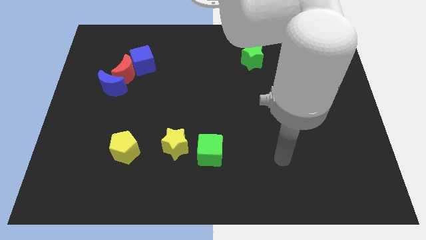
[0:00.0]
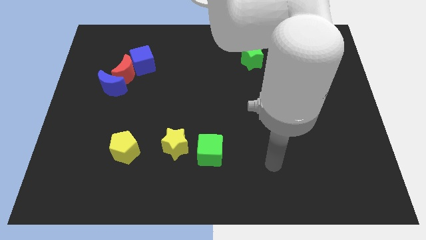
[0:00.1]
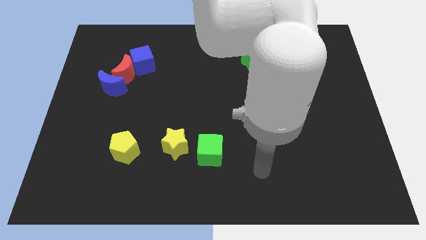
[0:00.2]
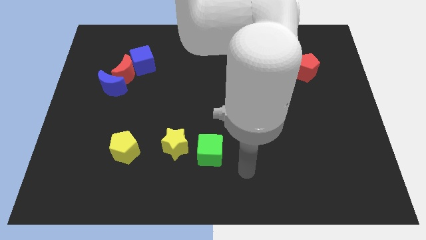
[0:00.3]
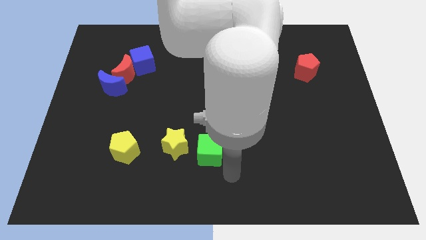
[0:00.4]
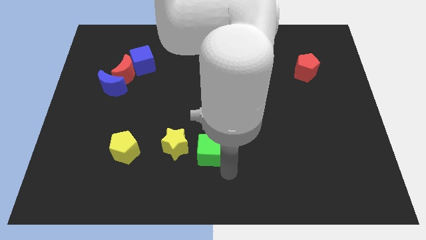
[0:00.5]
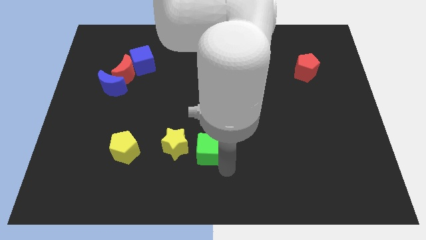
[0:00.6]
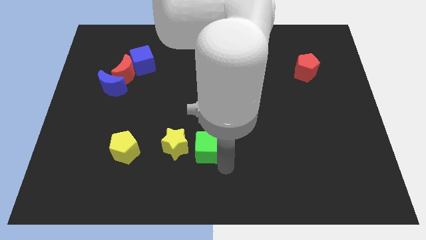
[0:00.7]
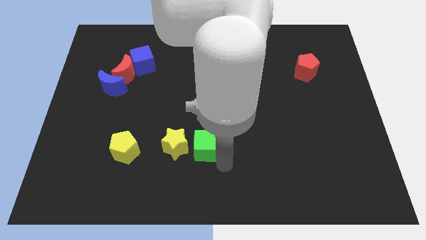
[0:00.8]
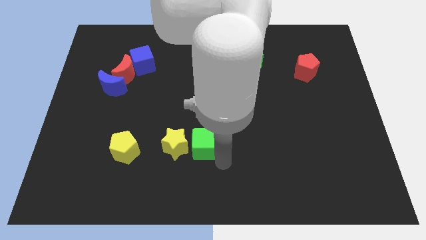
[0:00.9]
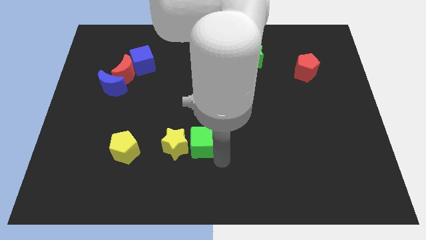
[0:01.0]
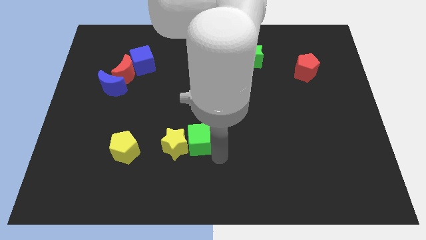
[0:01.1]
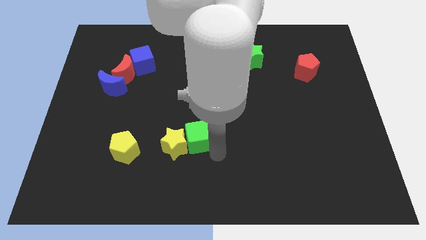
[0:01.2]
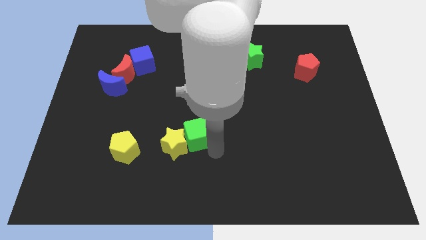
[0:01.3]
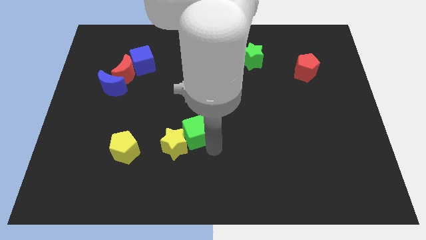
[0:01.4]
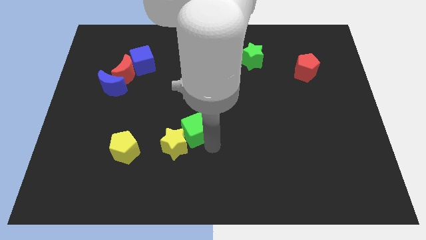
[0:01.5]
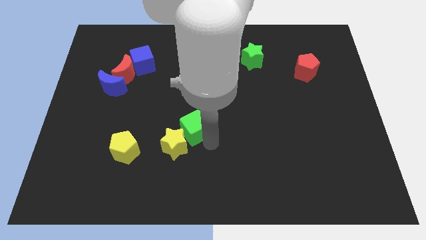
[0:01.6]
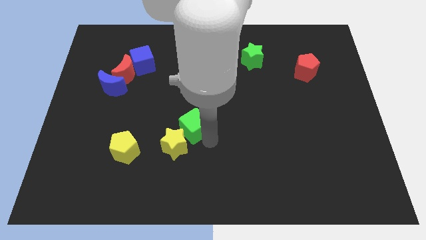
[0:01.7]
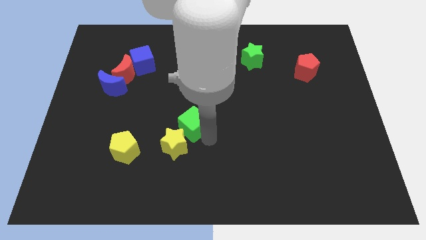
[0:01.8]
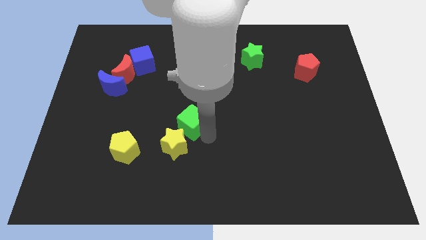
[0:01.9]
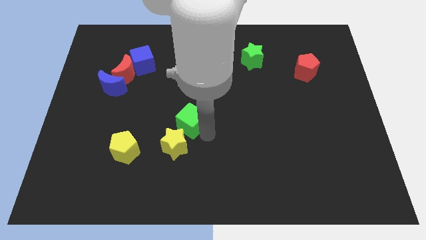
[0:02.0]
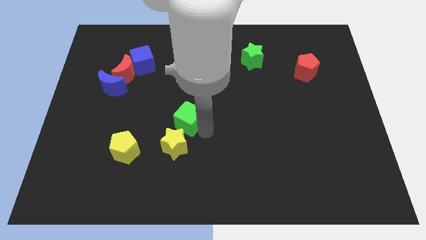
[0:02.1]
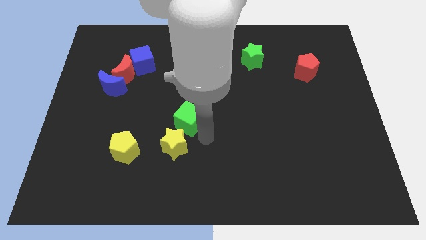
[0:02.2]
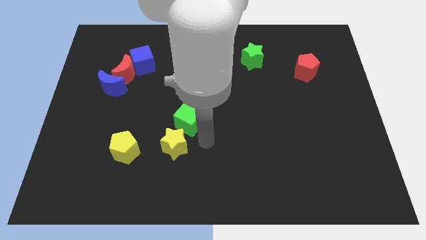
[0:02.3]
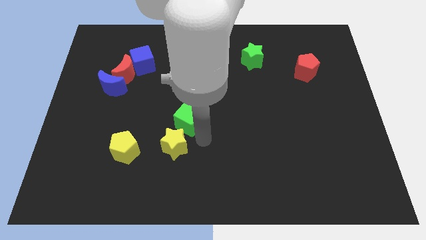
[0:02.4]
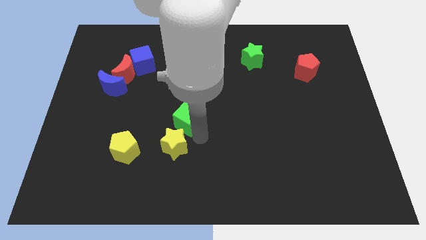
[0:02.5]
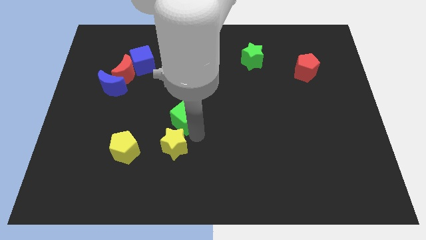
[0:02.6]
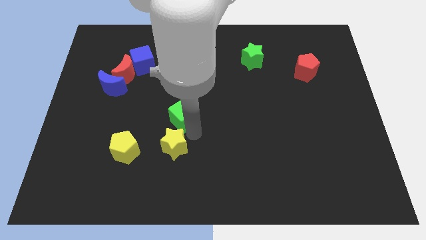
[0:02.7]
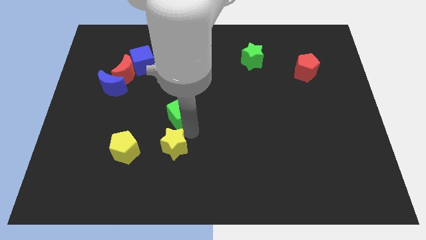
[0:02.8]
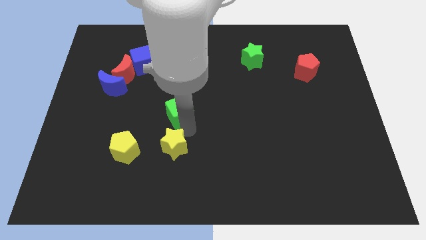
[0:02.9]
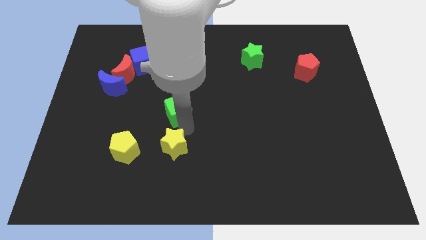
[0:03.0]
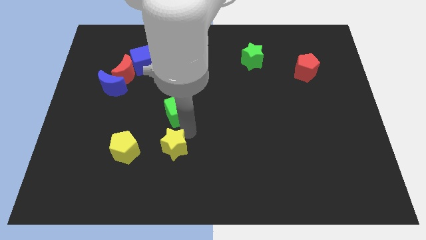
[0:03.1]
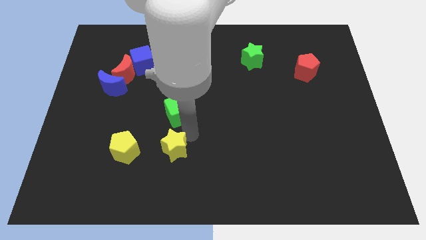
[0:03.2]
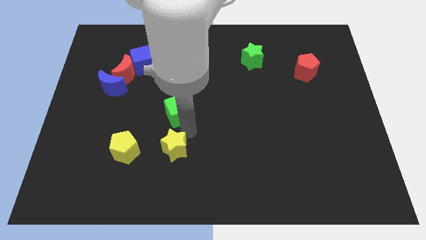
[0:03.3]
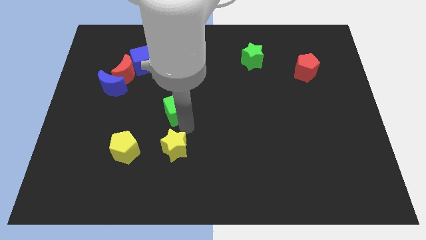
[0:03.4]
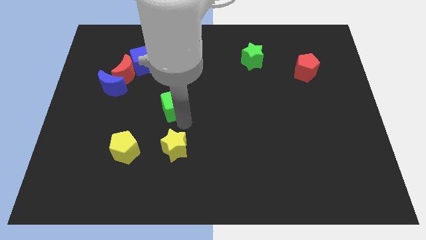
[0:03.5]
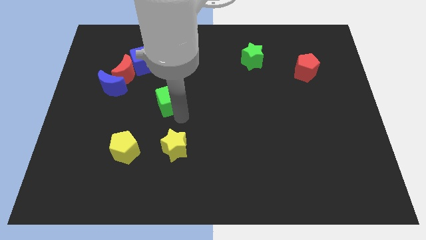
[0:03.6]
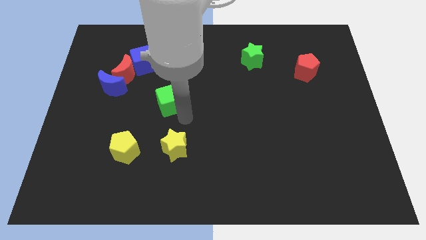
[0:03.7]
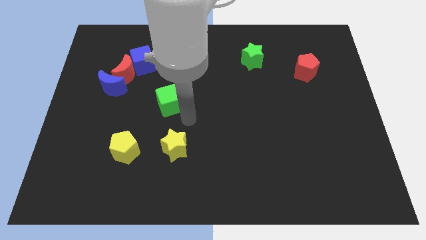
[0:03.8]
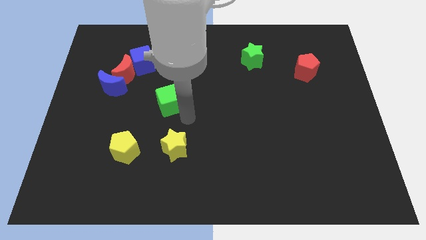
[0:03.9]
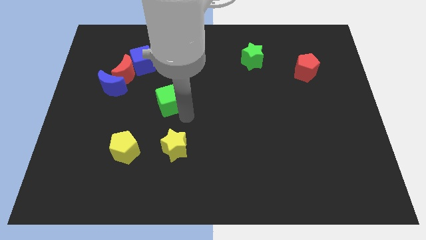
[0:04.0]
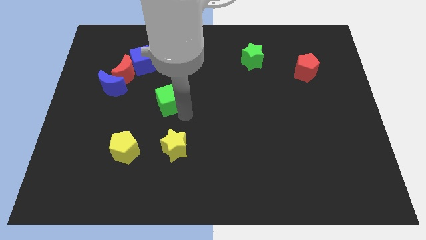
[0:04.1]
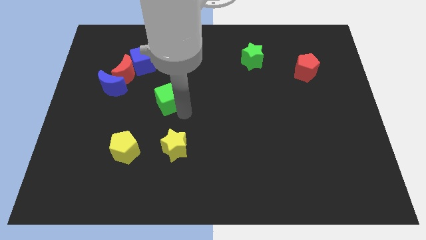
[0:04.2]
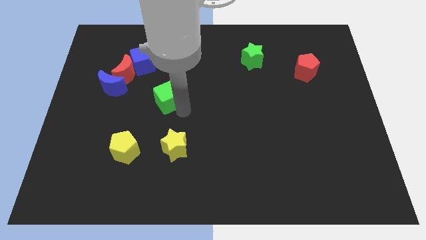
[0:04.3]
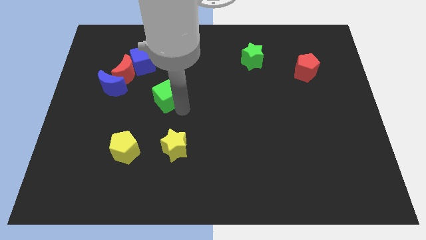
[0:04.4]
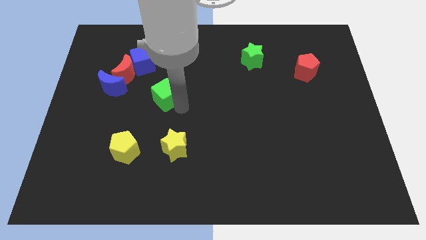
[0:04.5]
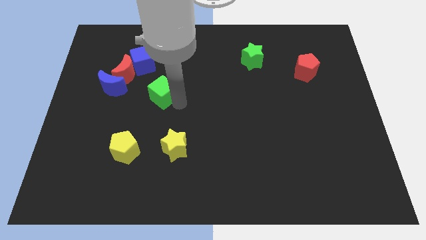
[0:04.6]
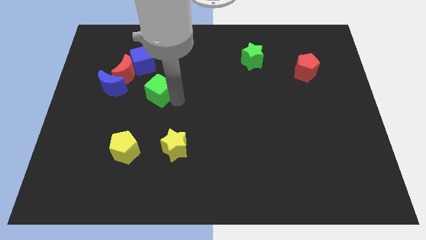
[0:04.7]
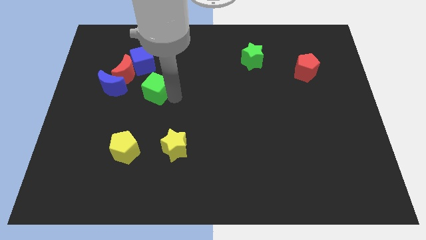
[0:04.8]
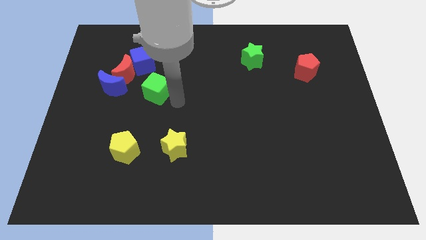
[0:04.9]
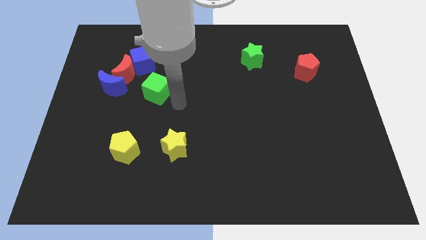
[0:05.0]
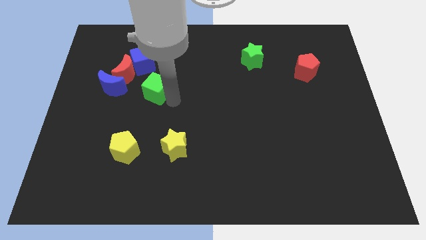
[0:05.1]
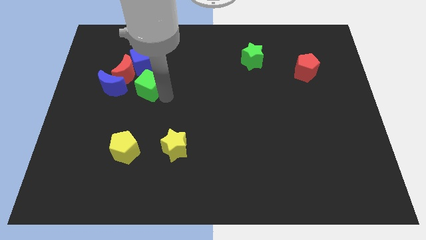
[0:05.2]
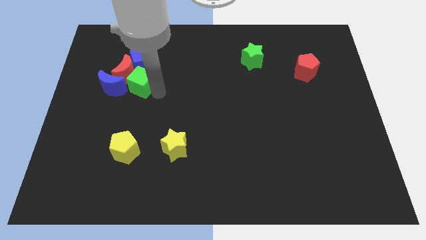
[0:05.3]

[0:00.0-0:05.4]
push the green cube next to the red moon

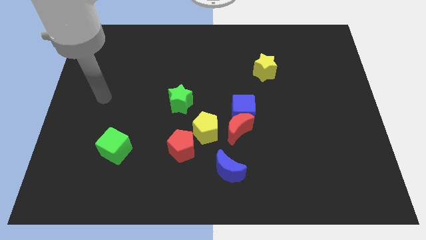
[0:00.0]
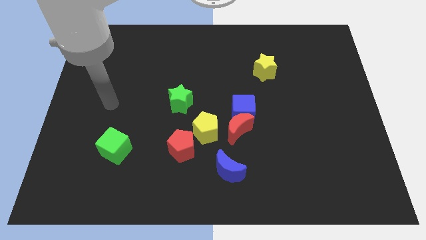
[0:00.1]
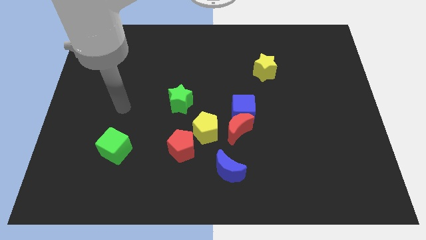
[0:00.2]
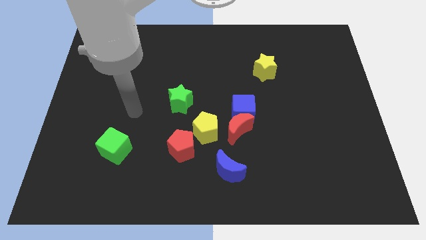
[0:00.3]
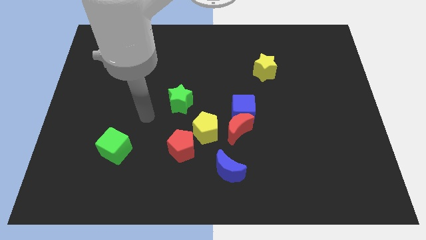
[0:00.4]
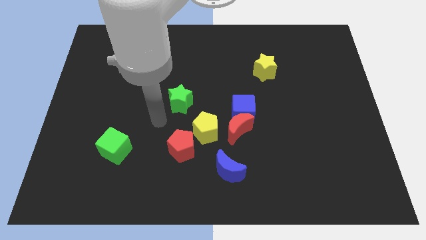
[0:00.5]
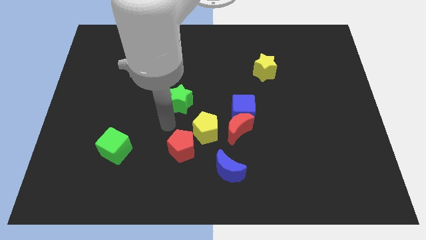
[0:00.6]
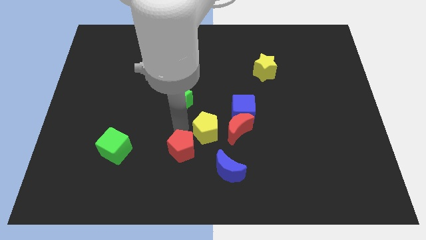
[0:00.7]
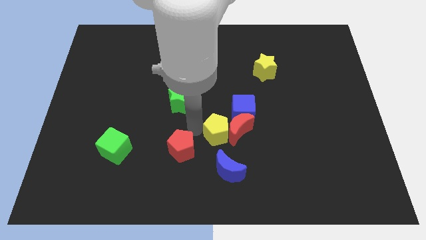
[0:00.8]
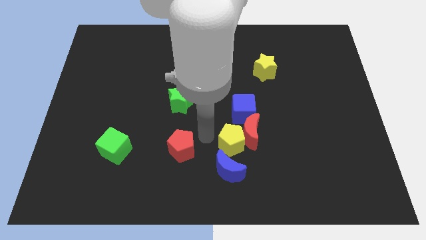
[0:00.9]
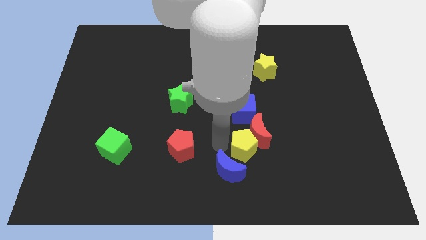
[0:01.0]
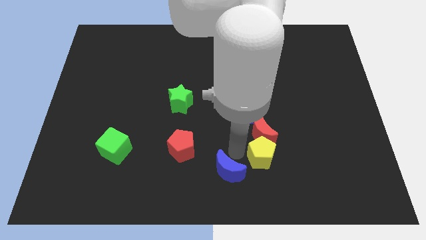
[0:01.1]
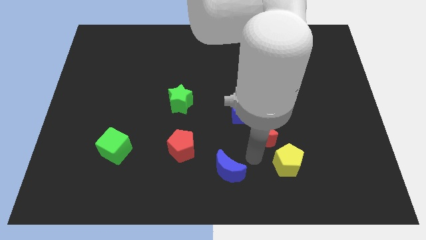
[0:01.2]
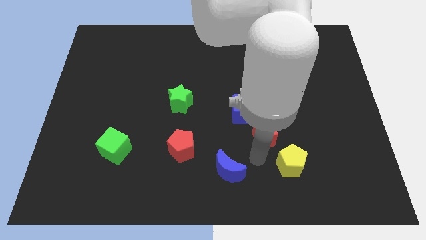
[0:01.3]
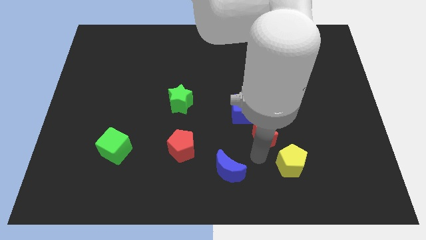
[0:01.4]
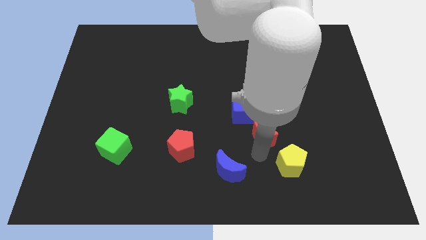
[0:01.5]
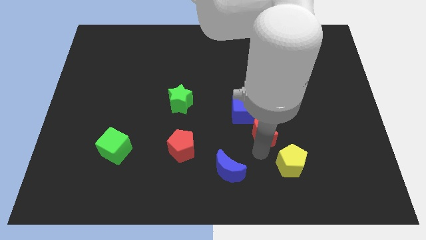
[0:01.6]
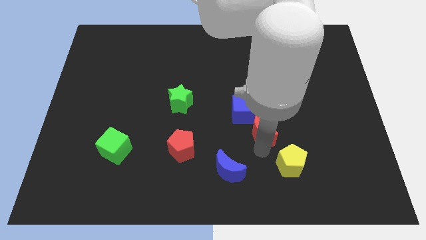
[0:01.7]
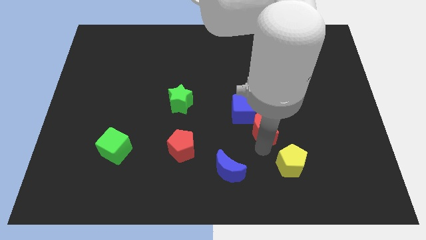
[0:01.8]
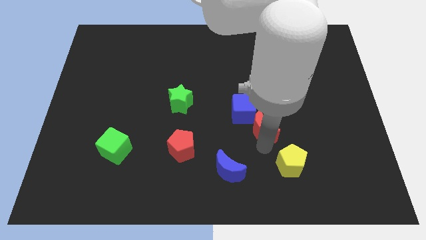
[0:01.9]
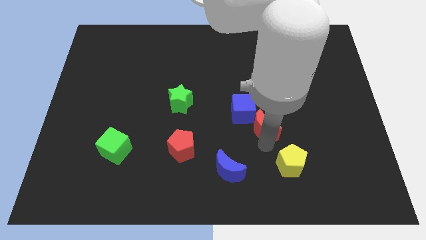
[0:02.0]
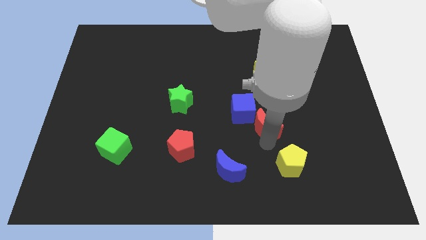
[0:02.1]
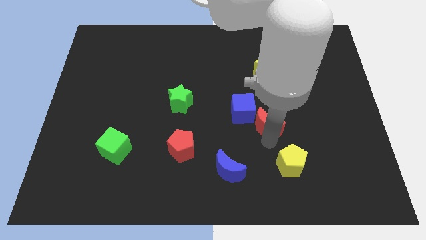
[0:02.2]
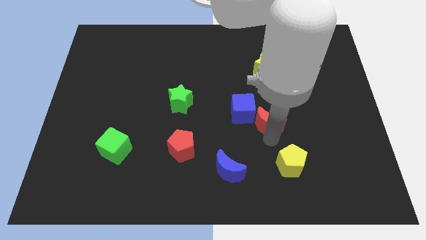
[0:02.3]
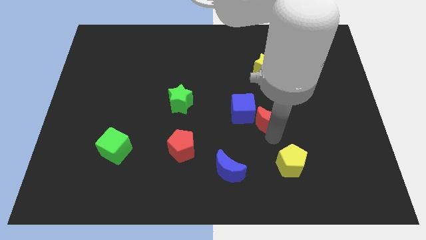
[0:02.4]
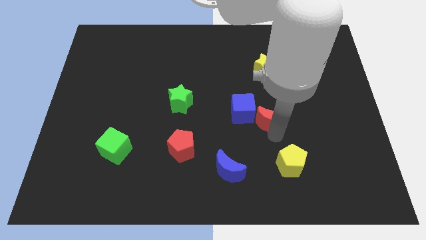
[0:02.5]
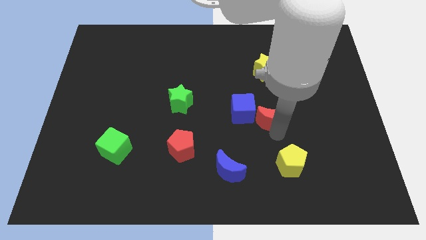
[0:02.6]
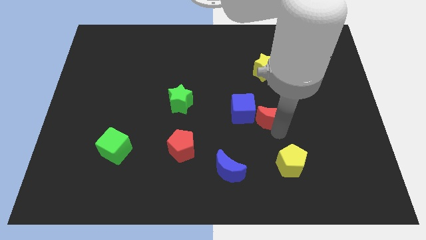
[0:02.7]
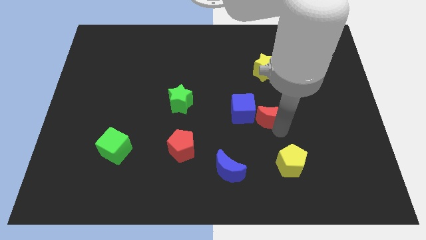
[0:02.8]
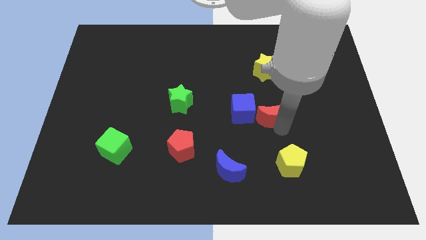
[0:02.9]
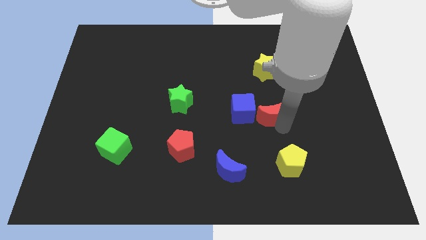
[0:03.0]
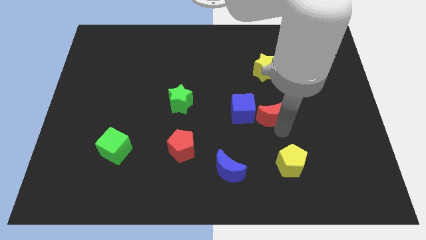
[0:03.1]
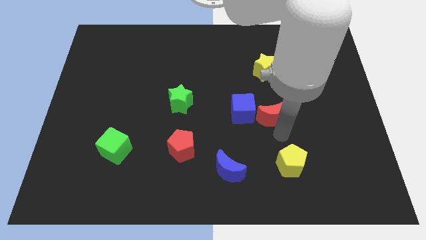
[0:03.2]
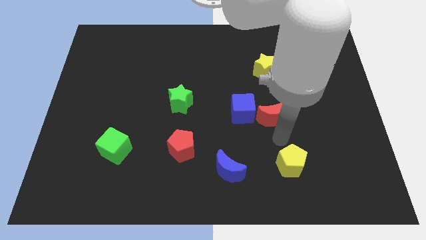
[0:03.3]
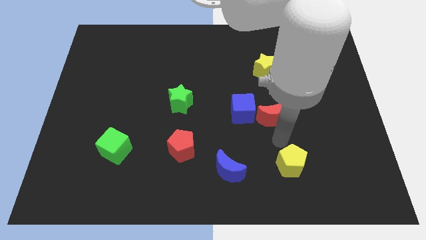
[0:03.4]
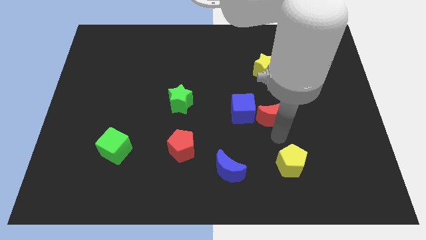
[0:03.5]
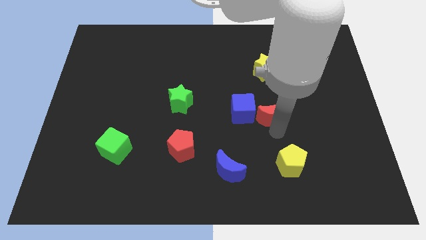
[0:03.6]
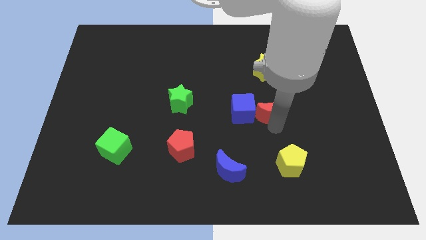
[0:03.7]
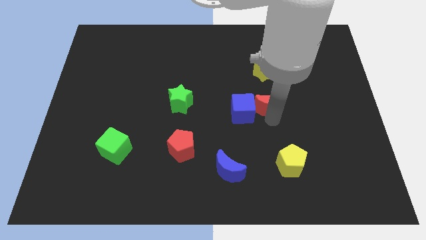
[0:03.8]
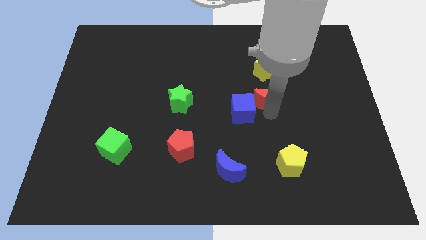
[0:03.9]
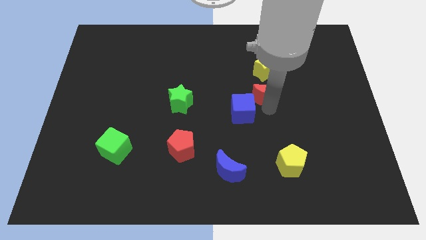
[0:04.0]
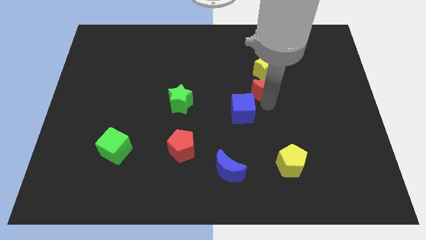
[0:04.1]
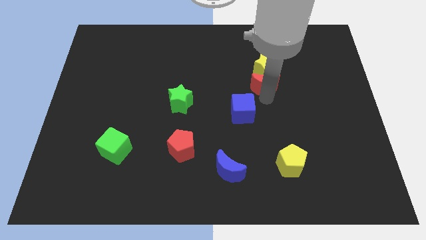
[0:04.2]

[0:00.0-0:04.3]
push the red moon next to the yellow star
